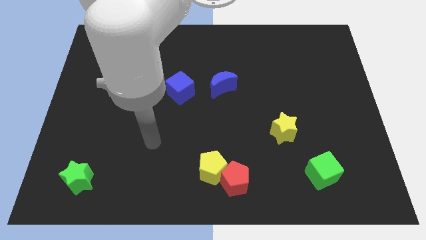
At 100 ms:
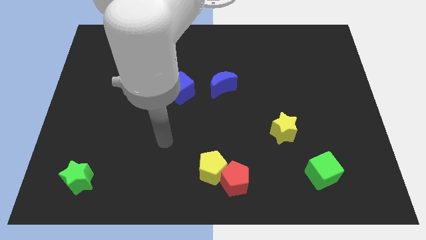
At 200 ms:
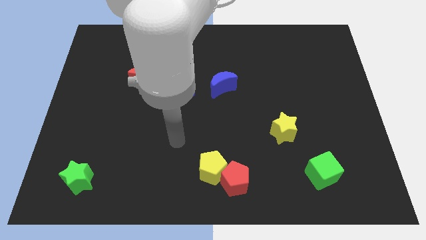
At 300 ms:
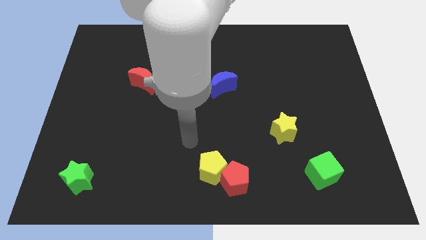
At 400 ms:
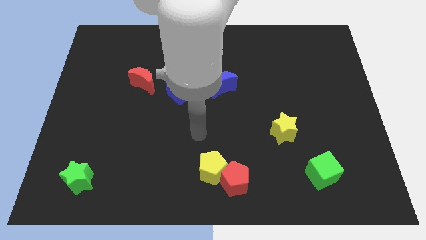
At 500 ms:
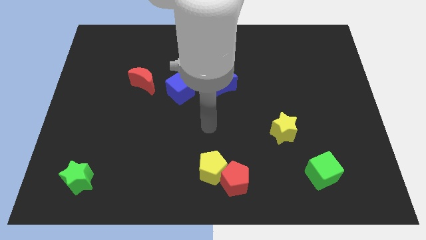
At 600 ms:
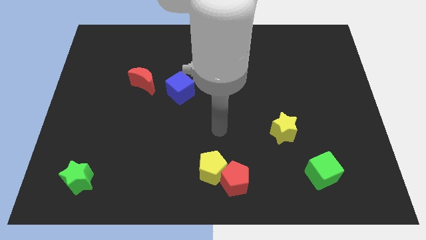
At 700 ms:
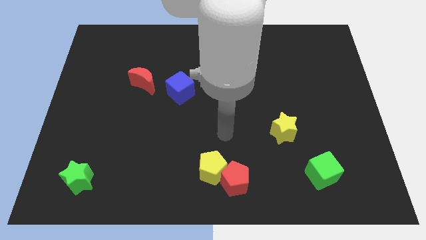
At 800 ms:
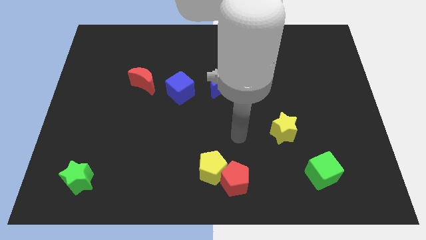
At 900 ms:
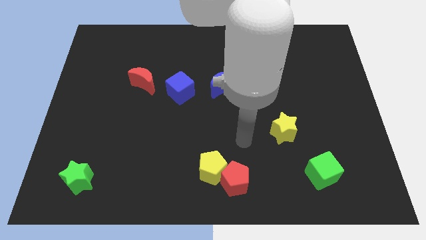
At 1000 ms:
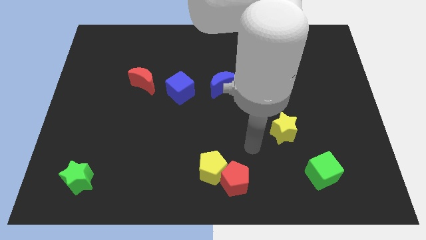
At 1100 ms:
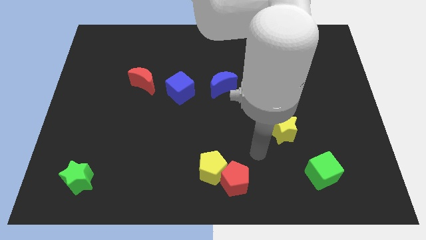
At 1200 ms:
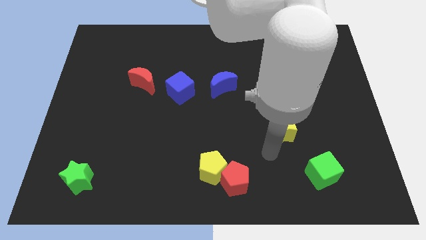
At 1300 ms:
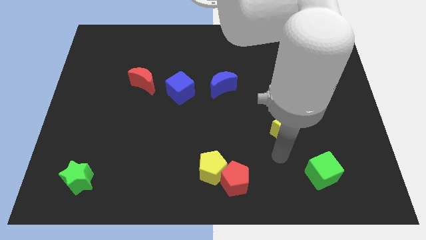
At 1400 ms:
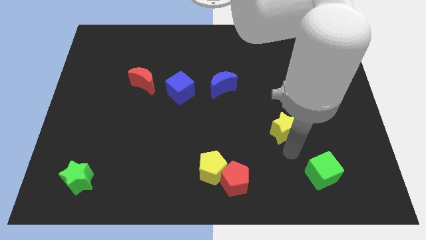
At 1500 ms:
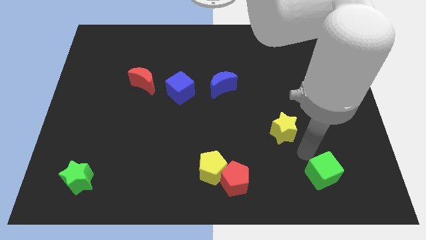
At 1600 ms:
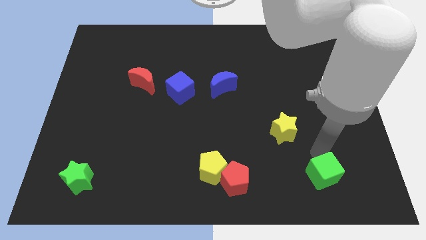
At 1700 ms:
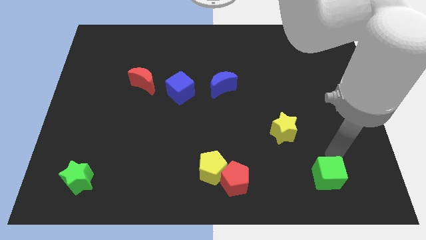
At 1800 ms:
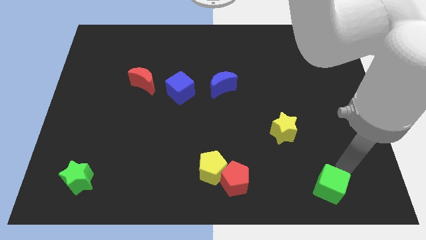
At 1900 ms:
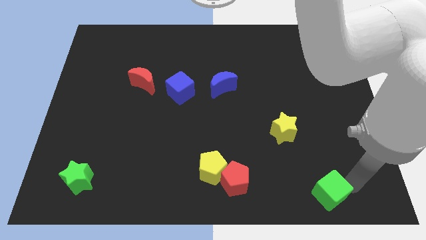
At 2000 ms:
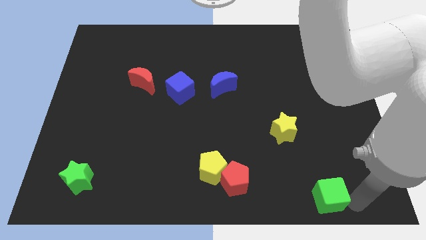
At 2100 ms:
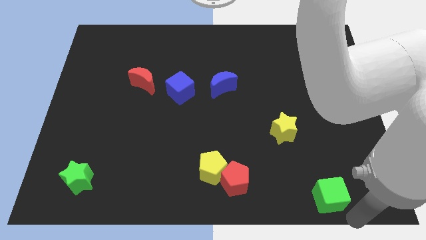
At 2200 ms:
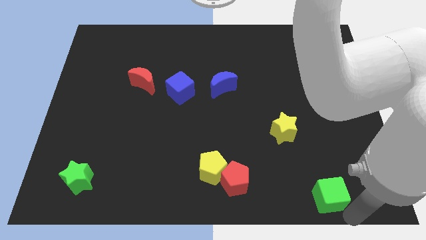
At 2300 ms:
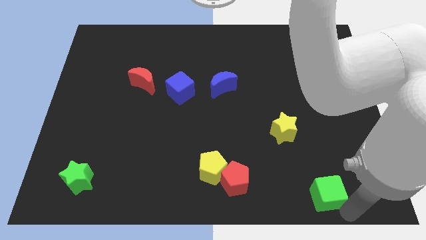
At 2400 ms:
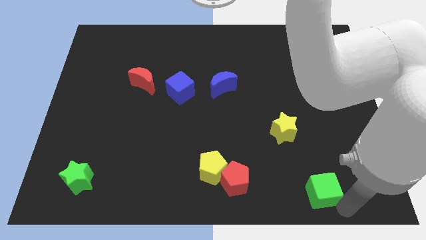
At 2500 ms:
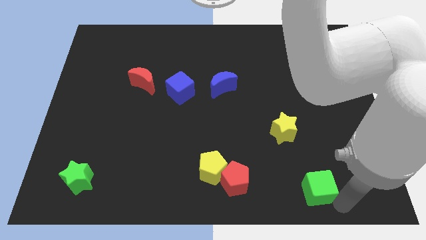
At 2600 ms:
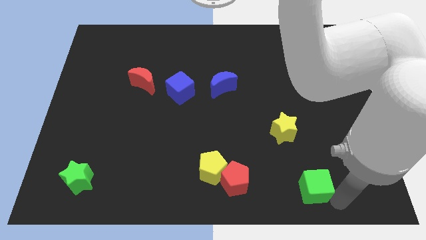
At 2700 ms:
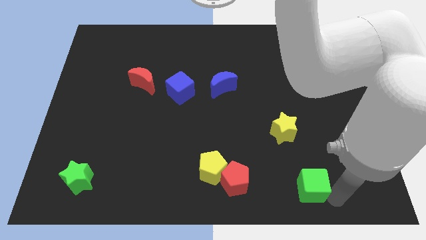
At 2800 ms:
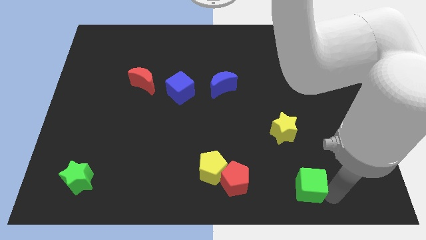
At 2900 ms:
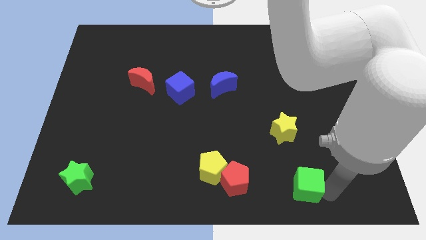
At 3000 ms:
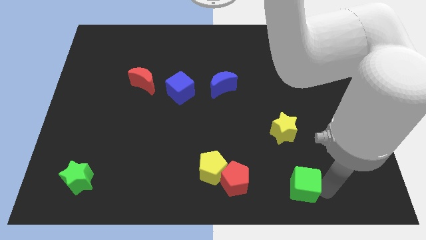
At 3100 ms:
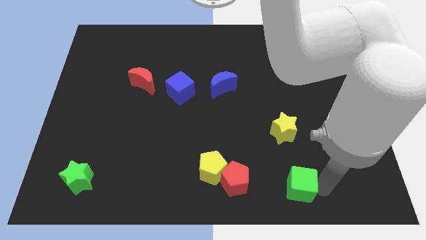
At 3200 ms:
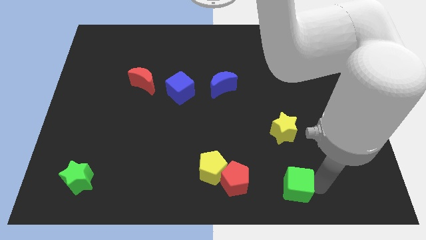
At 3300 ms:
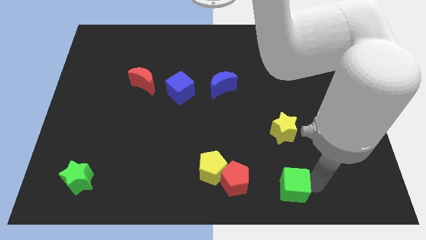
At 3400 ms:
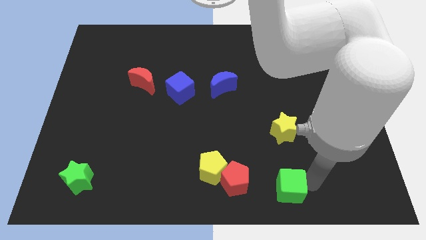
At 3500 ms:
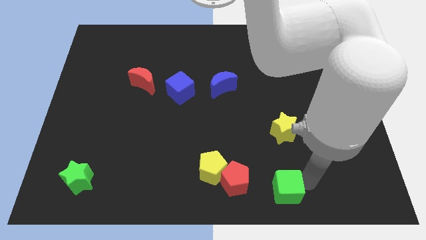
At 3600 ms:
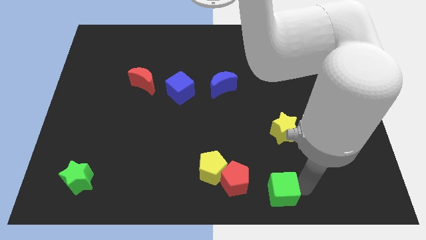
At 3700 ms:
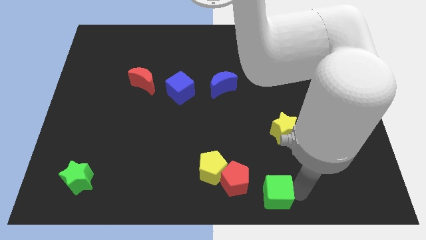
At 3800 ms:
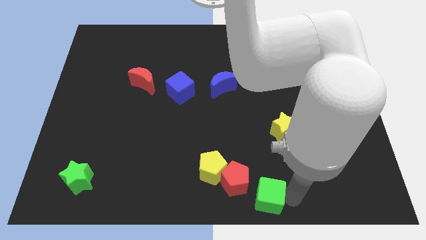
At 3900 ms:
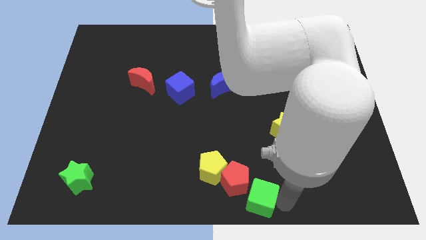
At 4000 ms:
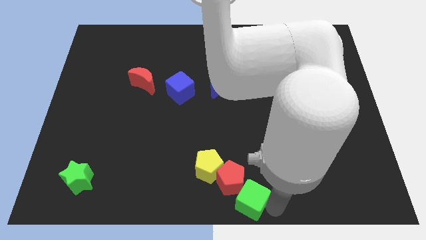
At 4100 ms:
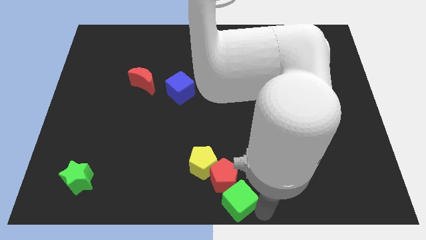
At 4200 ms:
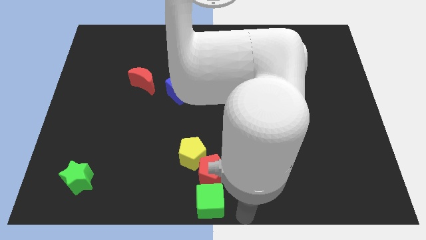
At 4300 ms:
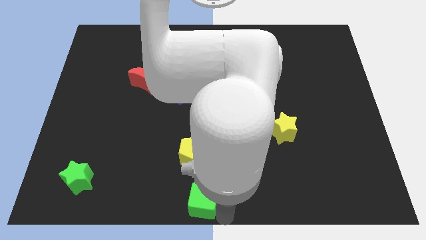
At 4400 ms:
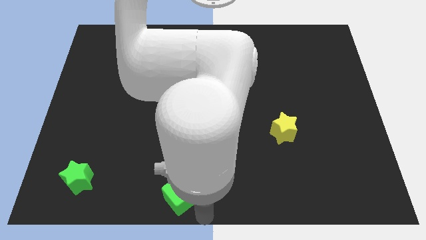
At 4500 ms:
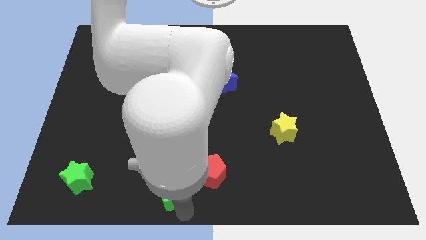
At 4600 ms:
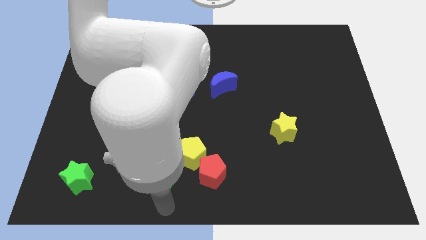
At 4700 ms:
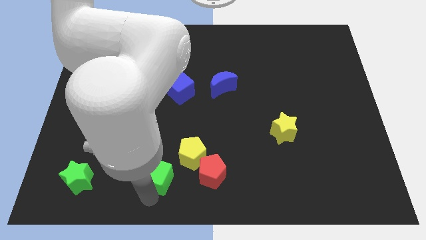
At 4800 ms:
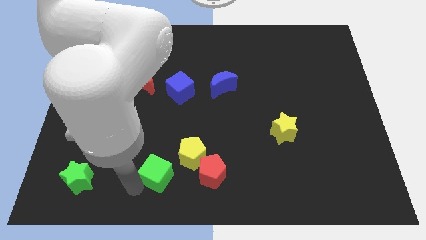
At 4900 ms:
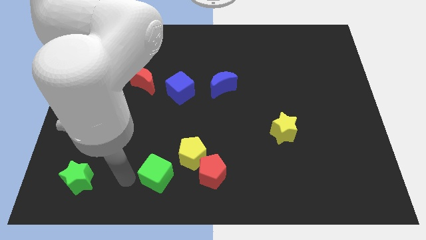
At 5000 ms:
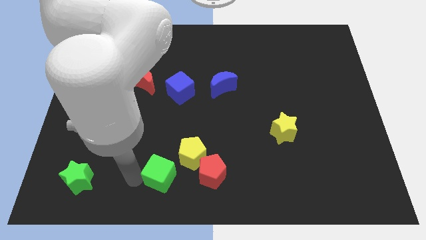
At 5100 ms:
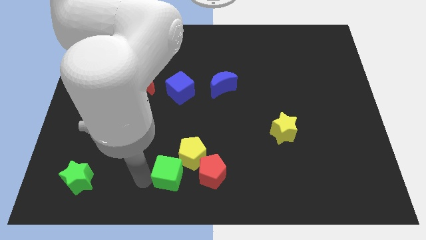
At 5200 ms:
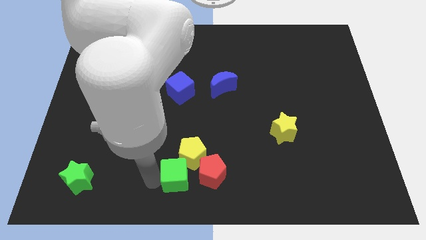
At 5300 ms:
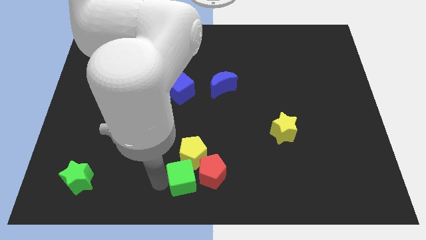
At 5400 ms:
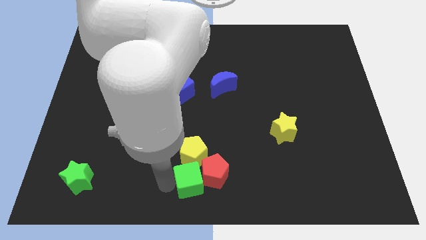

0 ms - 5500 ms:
move the green cube to the top left of the red pentagon

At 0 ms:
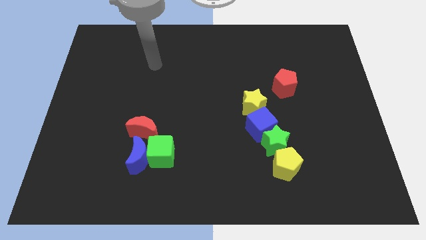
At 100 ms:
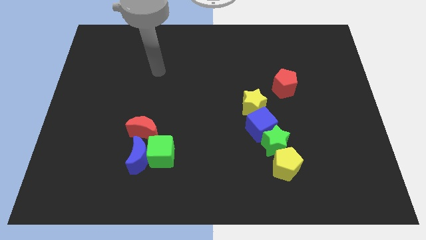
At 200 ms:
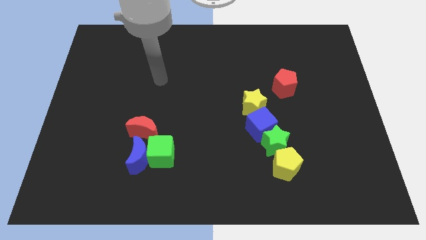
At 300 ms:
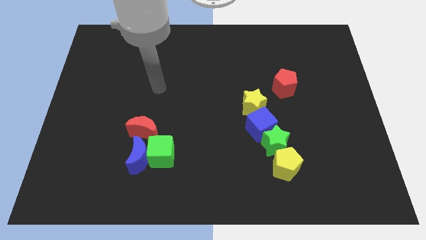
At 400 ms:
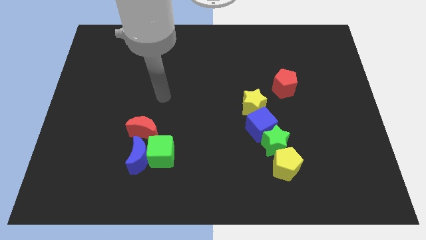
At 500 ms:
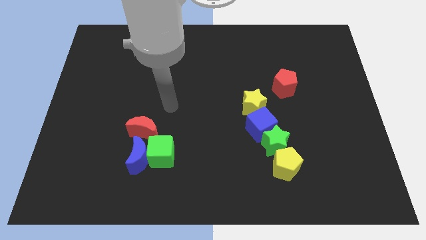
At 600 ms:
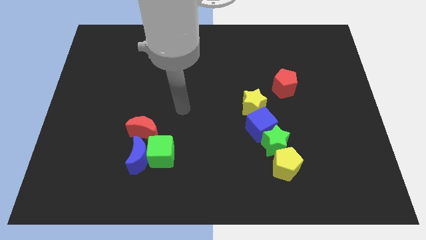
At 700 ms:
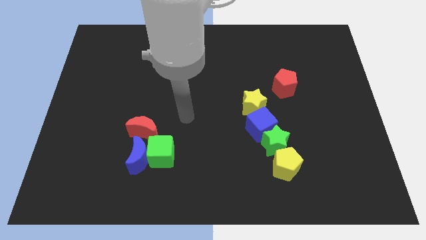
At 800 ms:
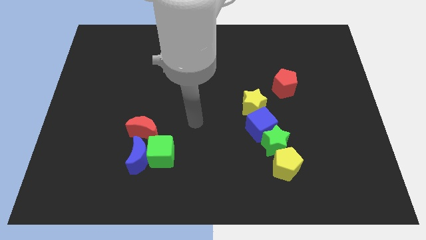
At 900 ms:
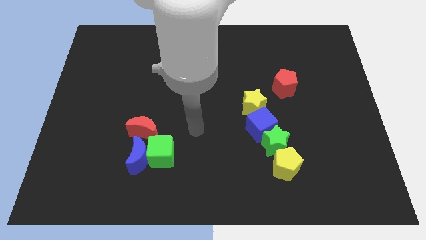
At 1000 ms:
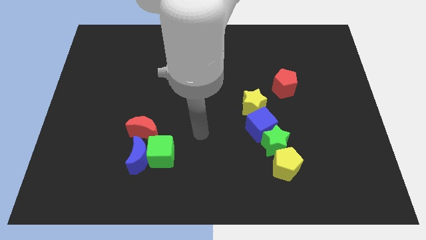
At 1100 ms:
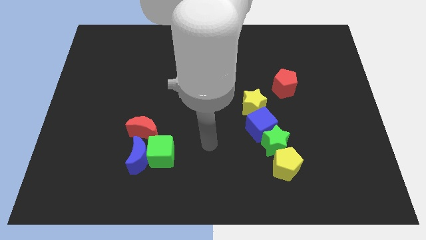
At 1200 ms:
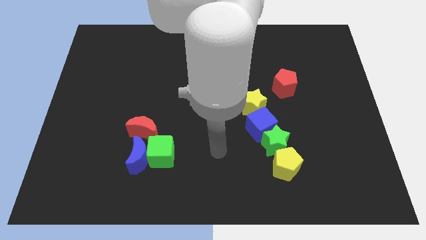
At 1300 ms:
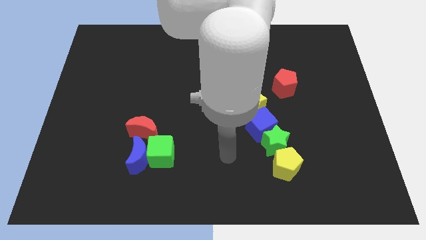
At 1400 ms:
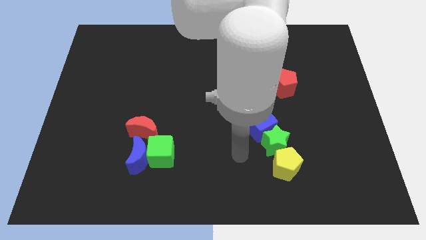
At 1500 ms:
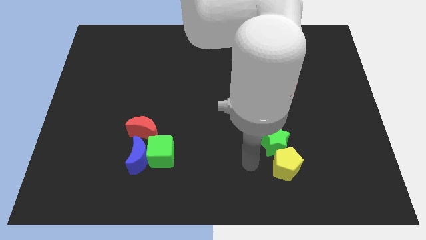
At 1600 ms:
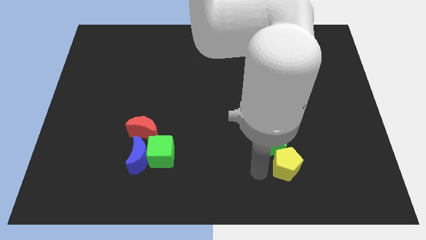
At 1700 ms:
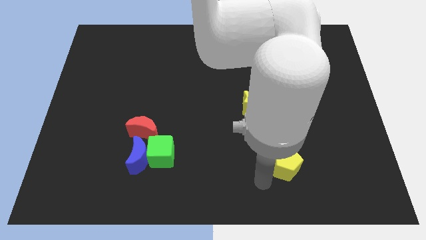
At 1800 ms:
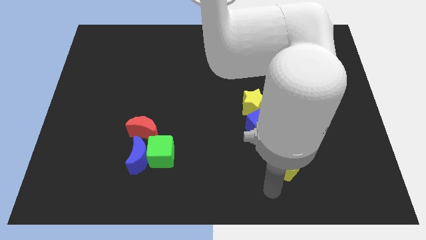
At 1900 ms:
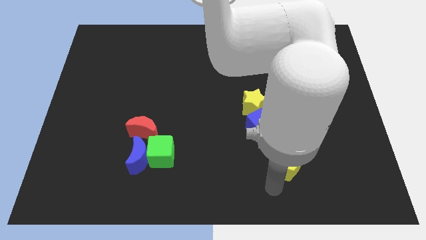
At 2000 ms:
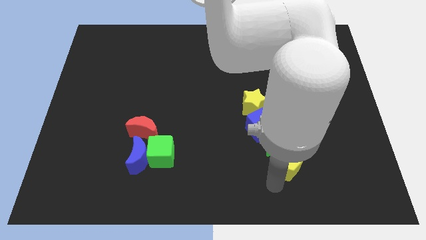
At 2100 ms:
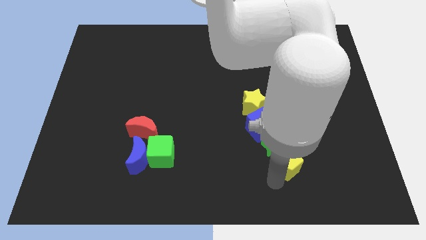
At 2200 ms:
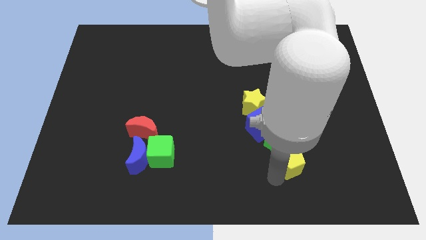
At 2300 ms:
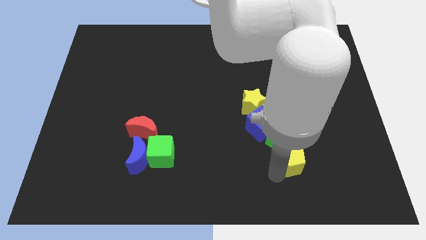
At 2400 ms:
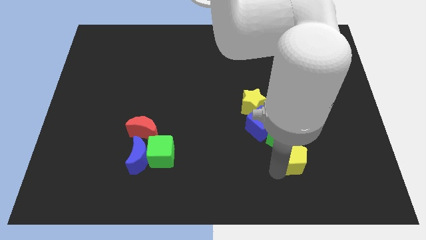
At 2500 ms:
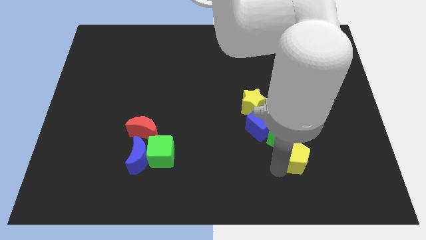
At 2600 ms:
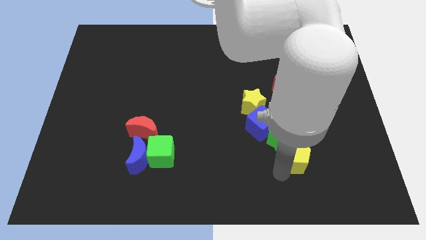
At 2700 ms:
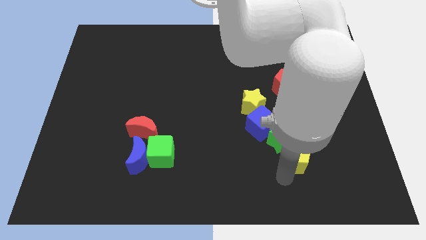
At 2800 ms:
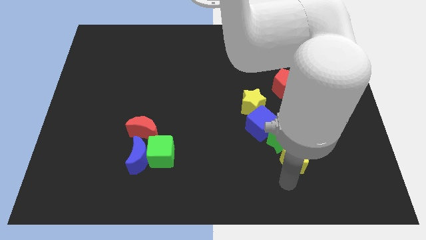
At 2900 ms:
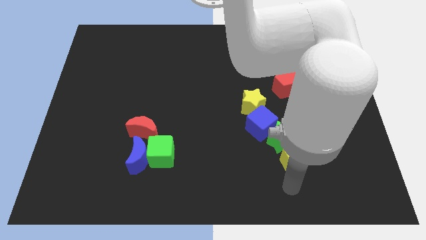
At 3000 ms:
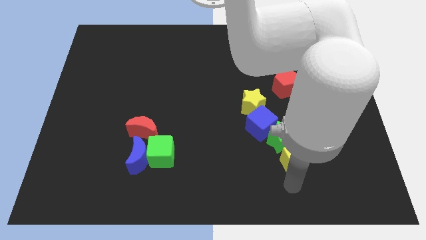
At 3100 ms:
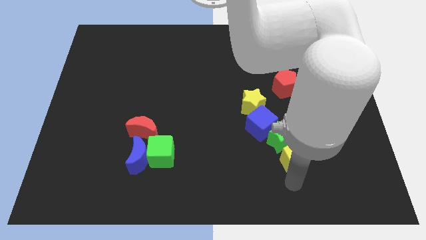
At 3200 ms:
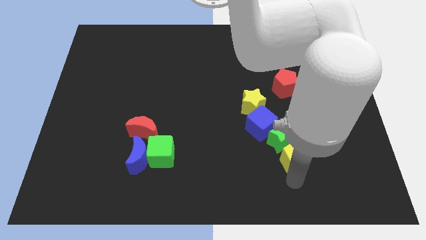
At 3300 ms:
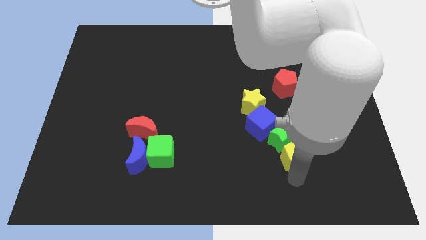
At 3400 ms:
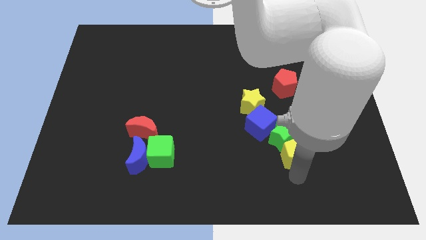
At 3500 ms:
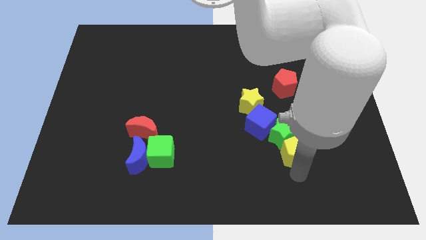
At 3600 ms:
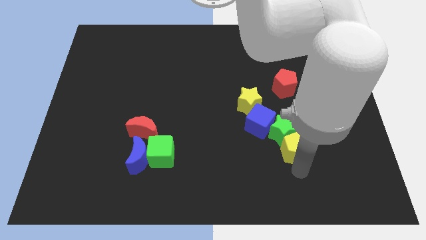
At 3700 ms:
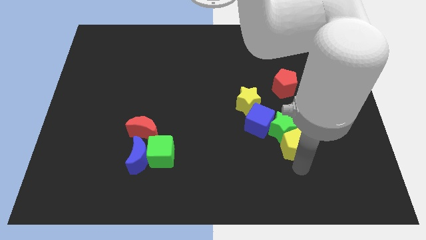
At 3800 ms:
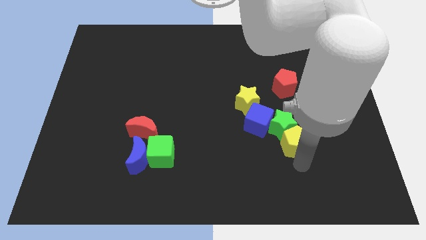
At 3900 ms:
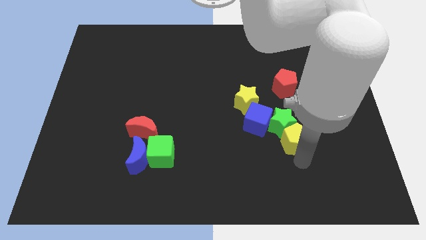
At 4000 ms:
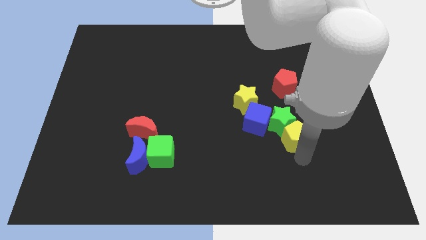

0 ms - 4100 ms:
move the yellow pentagon to the right side of the blue cube
